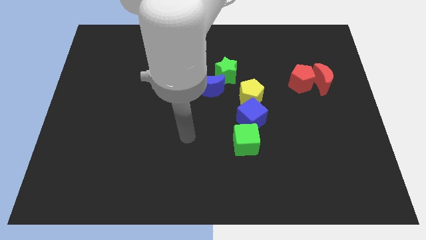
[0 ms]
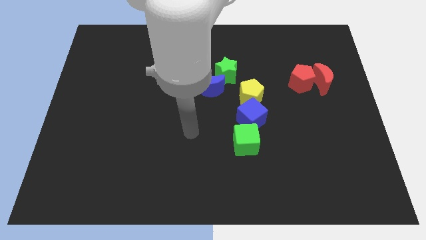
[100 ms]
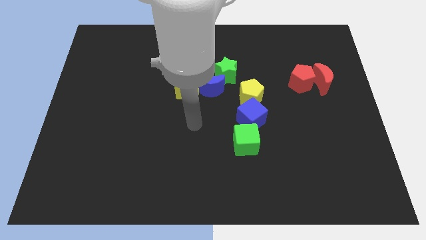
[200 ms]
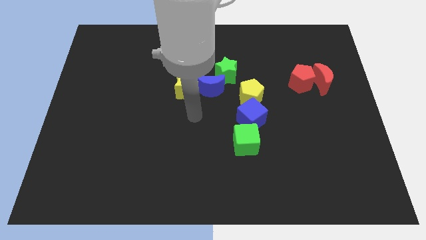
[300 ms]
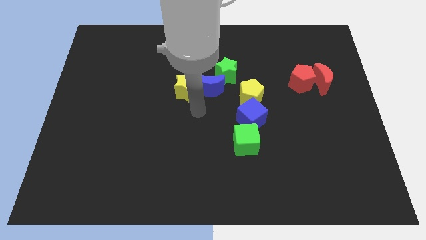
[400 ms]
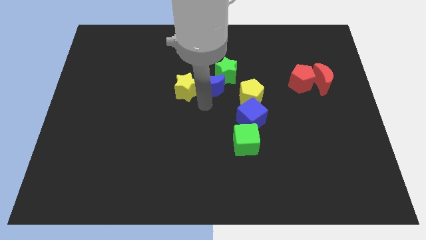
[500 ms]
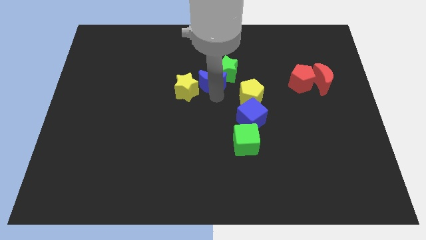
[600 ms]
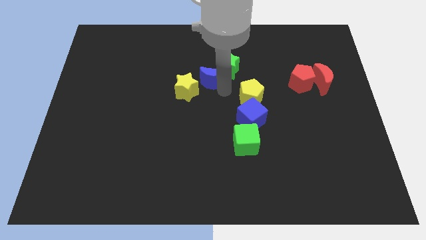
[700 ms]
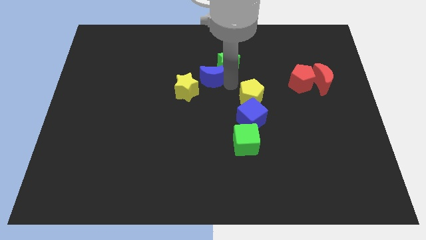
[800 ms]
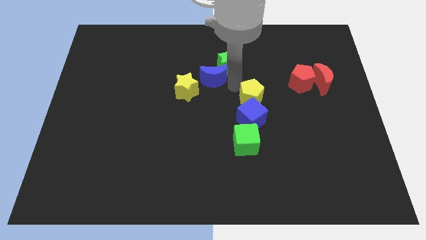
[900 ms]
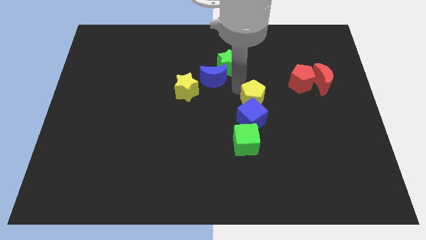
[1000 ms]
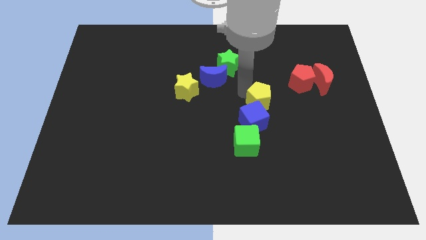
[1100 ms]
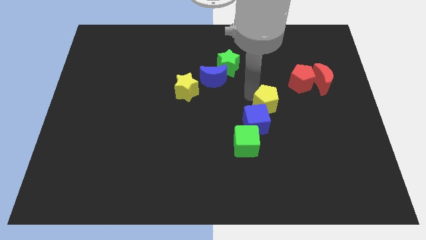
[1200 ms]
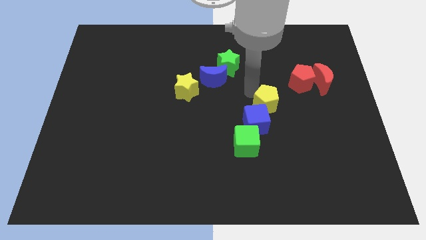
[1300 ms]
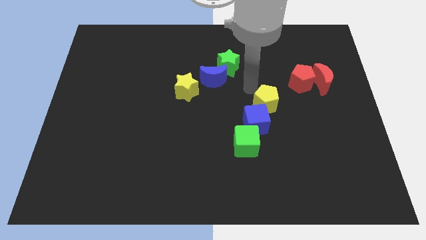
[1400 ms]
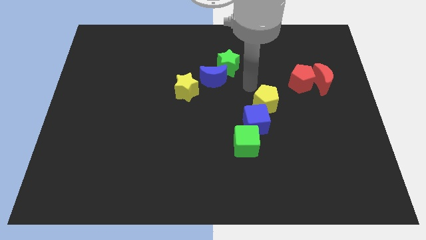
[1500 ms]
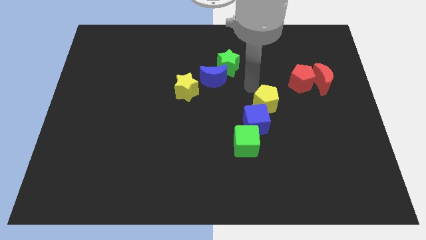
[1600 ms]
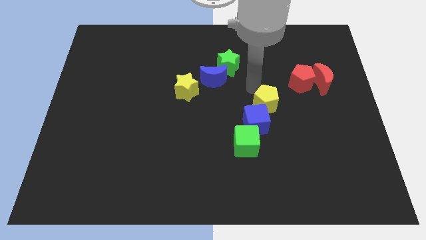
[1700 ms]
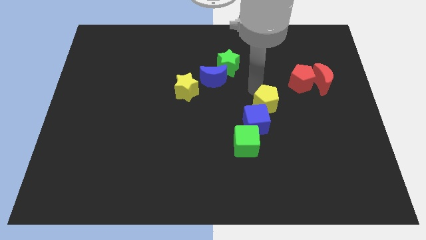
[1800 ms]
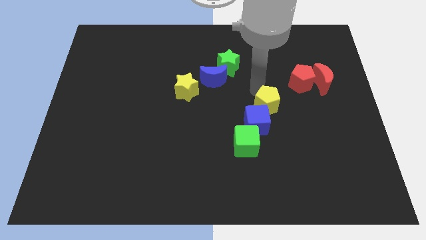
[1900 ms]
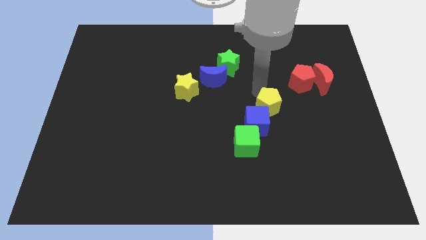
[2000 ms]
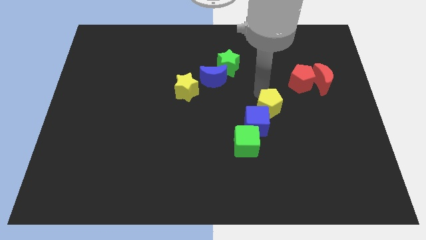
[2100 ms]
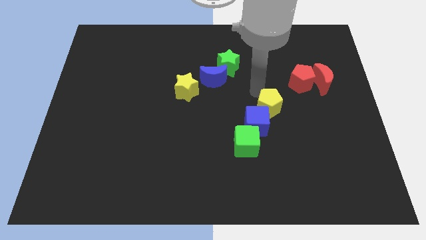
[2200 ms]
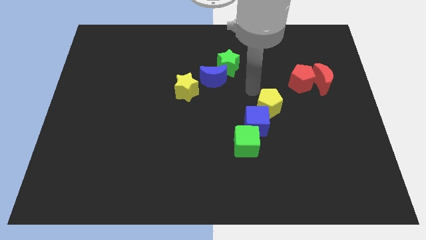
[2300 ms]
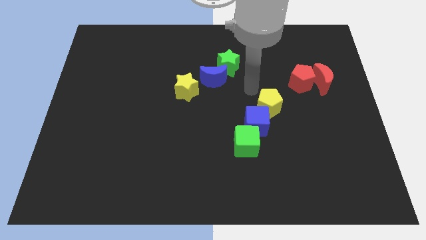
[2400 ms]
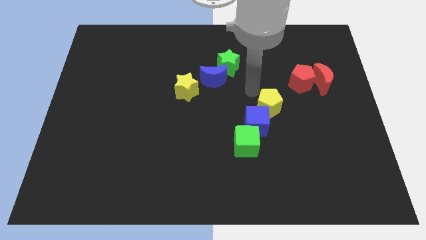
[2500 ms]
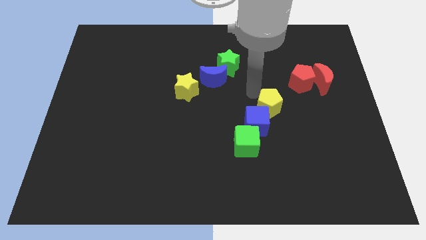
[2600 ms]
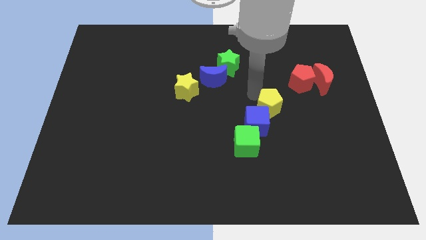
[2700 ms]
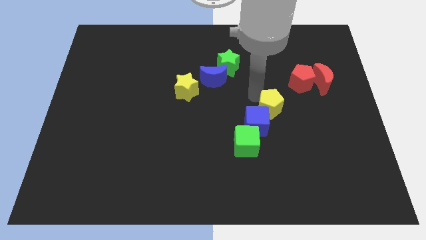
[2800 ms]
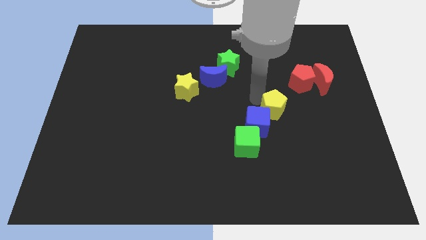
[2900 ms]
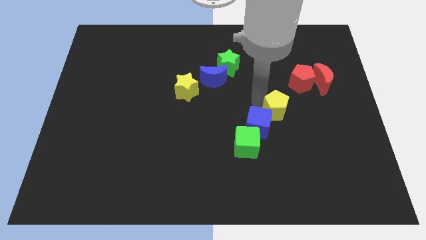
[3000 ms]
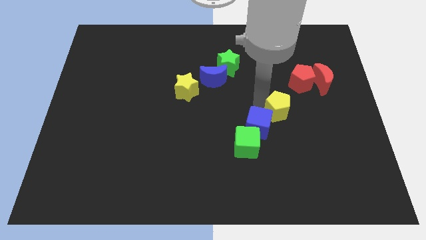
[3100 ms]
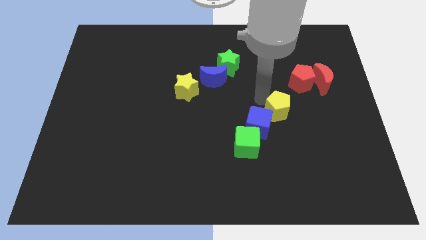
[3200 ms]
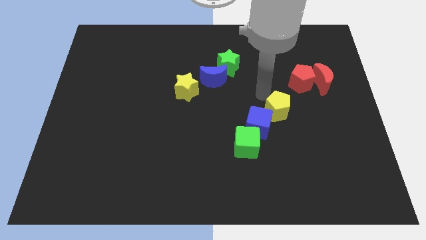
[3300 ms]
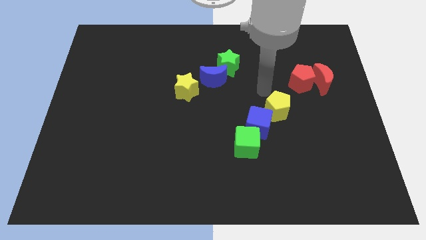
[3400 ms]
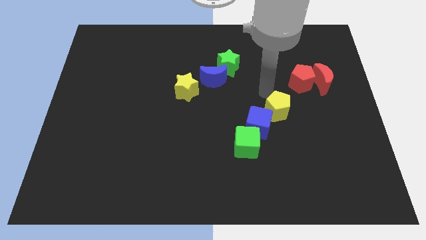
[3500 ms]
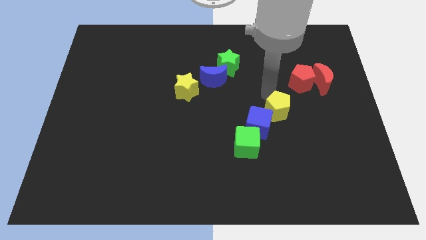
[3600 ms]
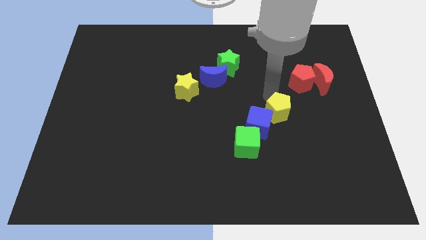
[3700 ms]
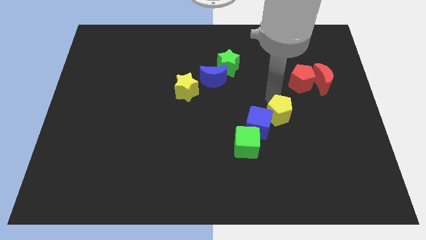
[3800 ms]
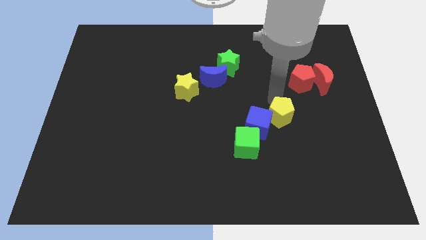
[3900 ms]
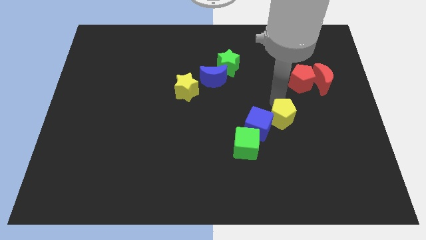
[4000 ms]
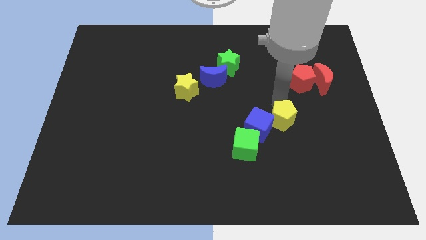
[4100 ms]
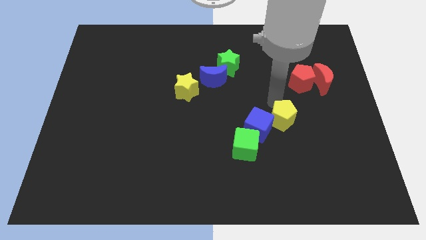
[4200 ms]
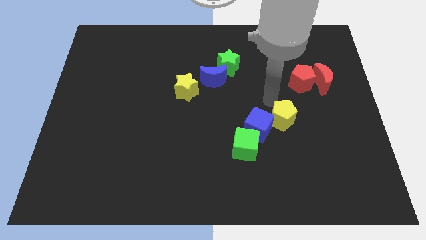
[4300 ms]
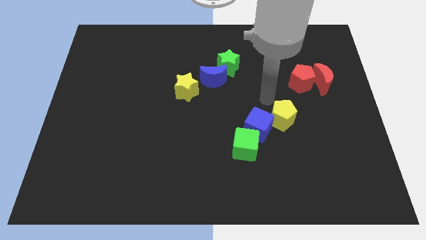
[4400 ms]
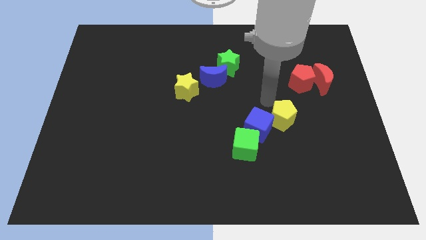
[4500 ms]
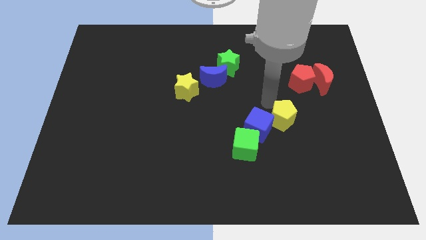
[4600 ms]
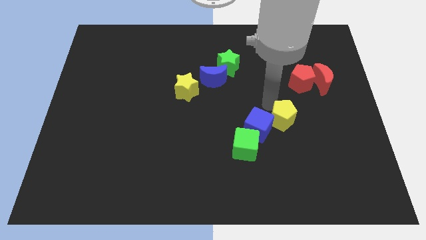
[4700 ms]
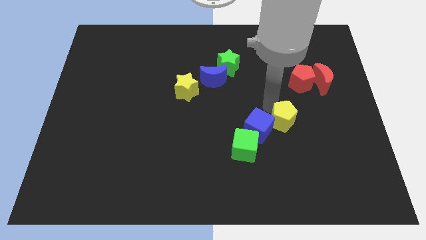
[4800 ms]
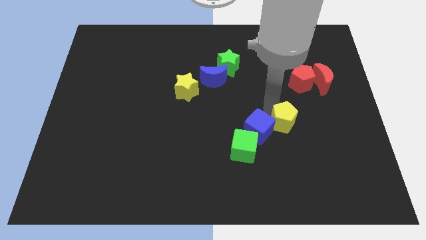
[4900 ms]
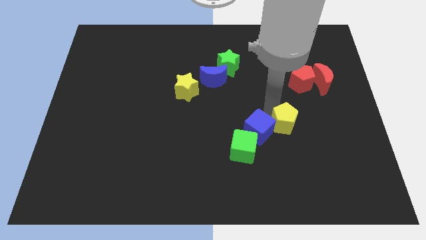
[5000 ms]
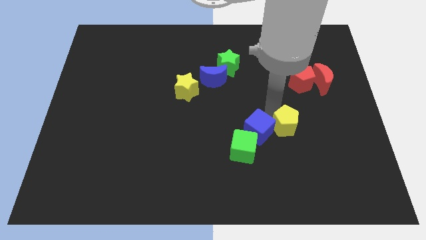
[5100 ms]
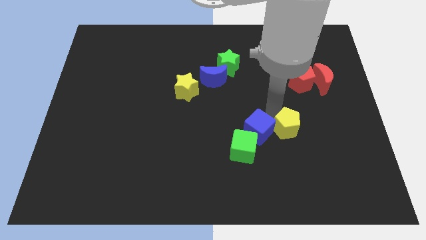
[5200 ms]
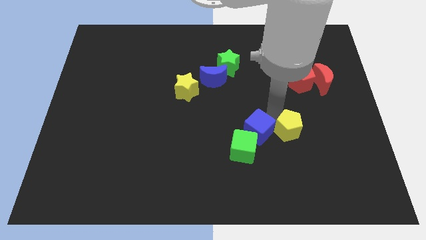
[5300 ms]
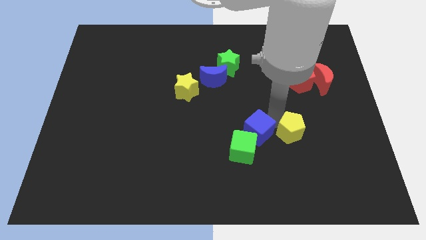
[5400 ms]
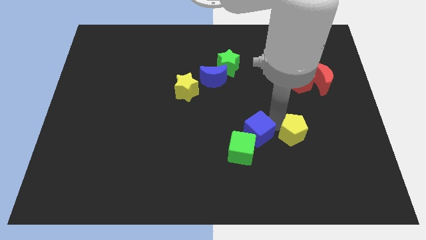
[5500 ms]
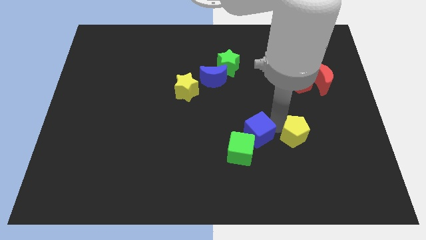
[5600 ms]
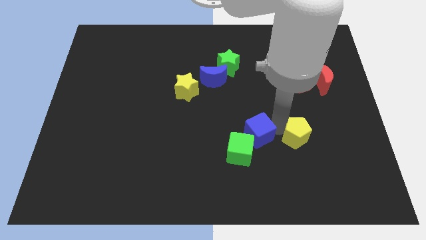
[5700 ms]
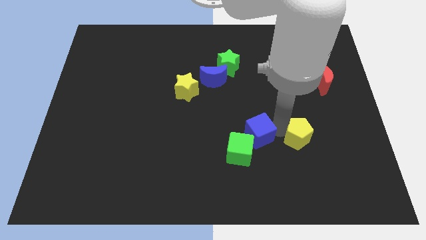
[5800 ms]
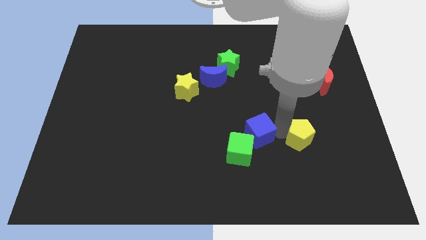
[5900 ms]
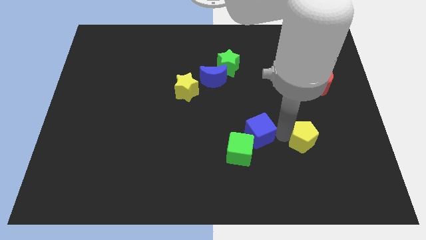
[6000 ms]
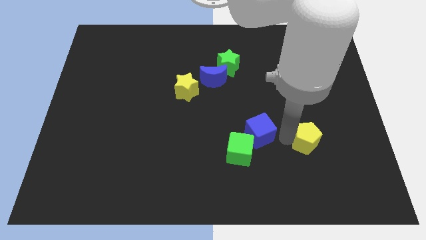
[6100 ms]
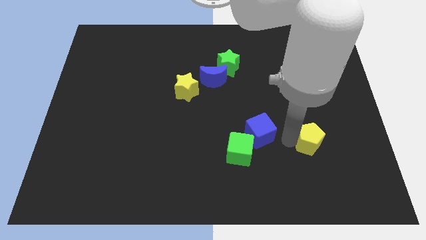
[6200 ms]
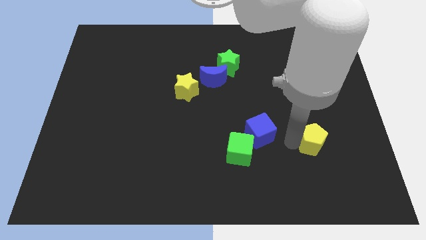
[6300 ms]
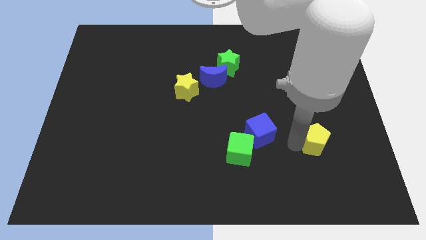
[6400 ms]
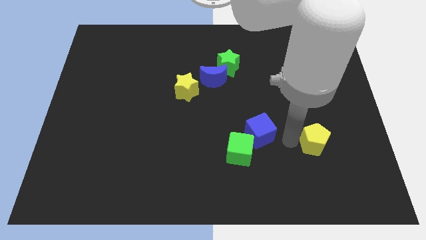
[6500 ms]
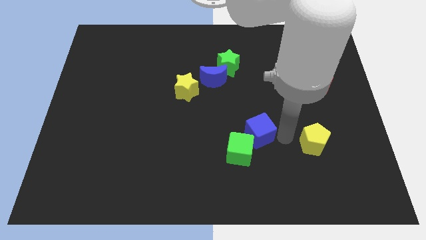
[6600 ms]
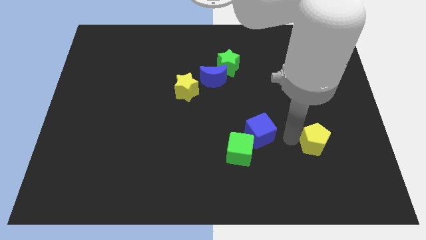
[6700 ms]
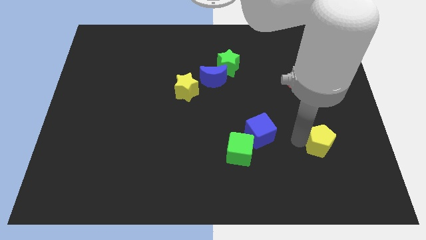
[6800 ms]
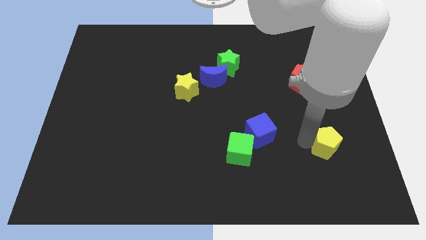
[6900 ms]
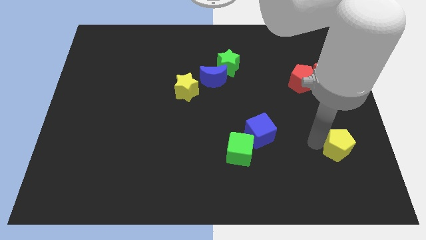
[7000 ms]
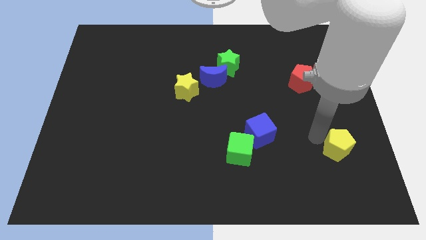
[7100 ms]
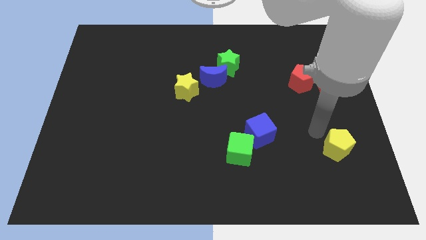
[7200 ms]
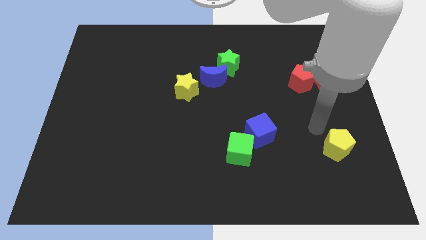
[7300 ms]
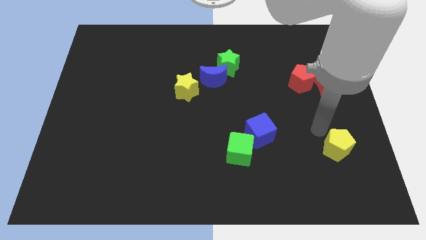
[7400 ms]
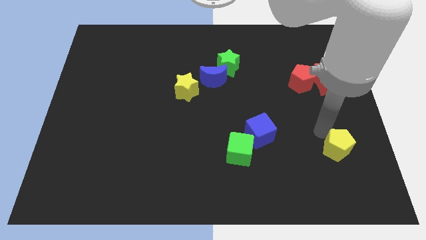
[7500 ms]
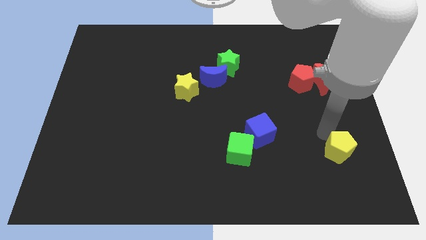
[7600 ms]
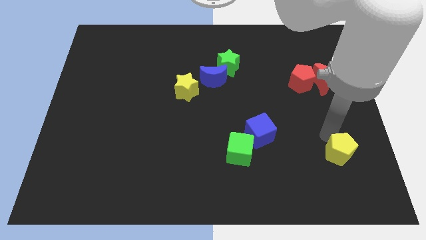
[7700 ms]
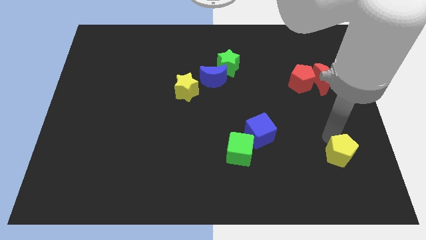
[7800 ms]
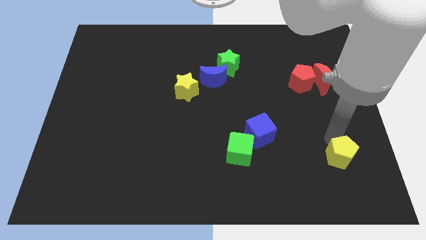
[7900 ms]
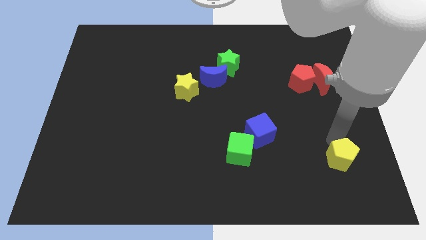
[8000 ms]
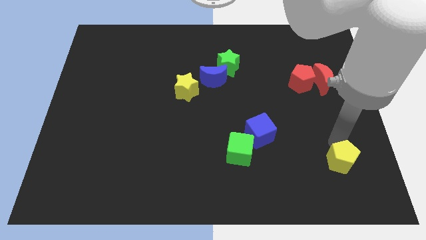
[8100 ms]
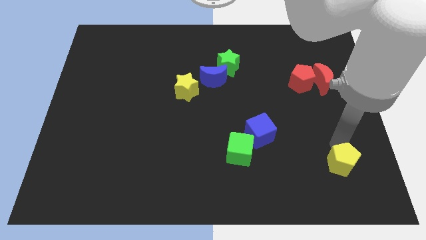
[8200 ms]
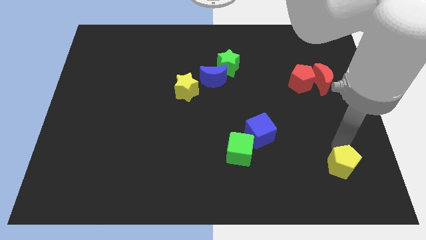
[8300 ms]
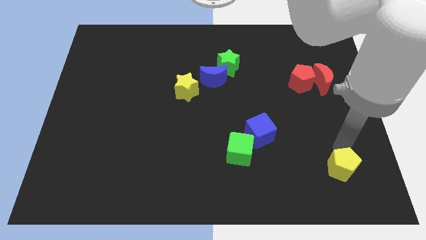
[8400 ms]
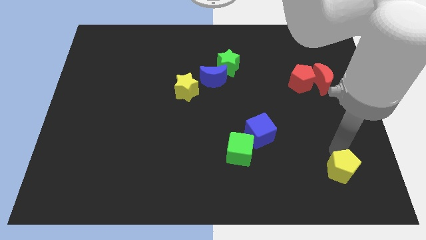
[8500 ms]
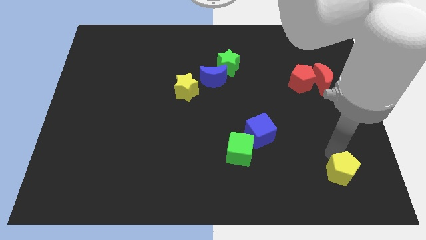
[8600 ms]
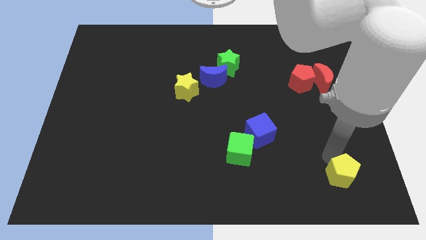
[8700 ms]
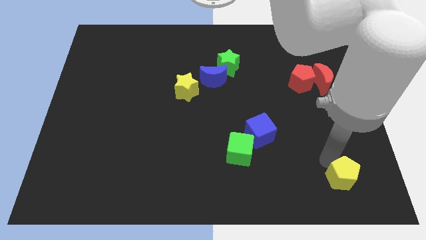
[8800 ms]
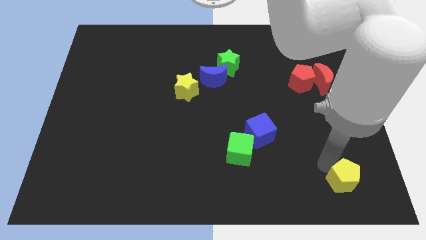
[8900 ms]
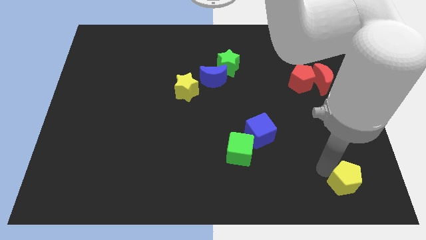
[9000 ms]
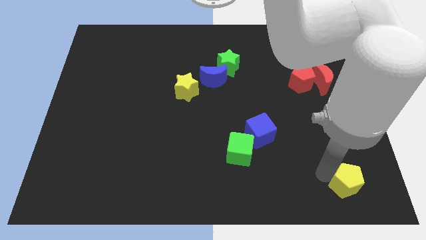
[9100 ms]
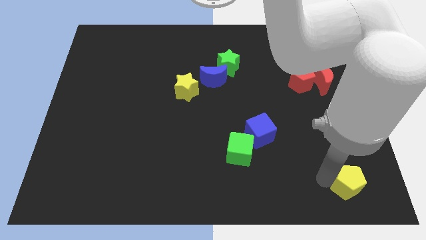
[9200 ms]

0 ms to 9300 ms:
push the yellow pentagon to the bottom right of the board
